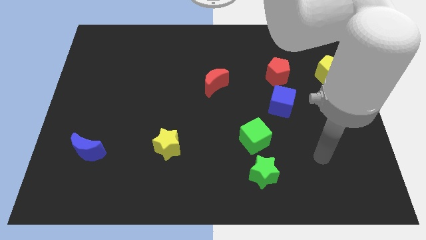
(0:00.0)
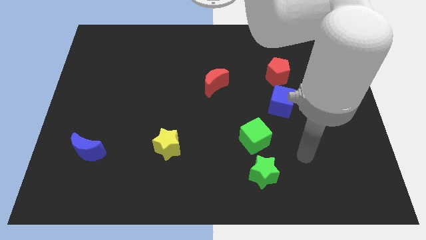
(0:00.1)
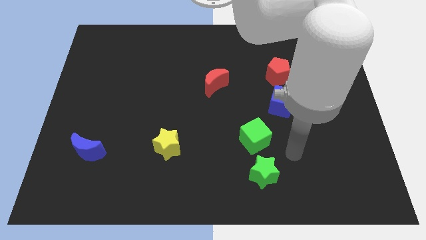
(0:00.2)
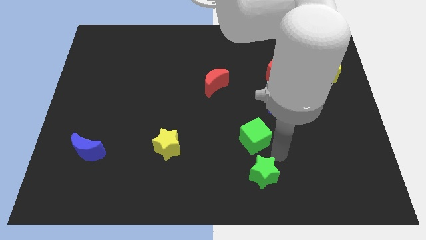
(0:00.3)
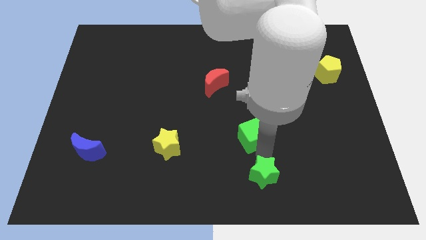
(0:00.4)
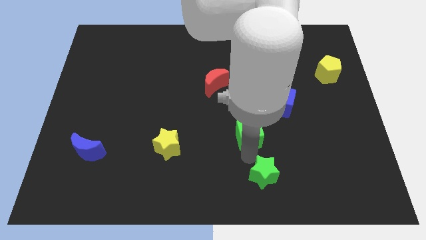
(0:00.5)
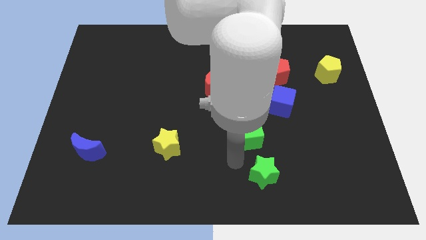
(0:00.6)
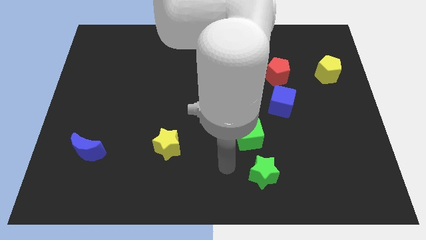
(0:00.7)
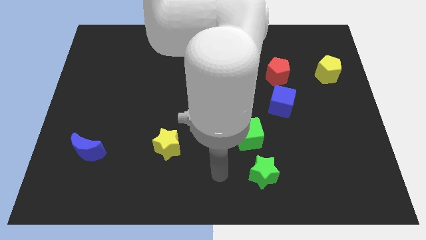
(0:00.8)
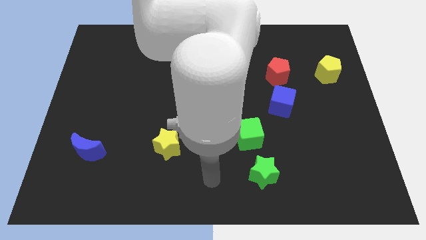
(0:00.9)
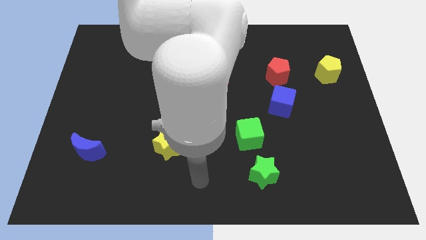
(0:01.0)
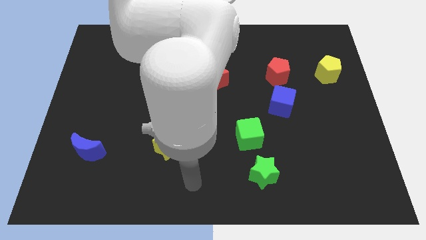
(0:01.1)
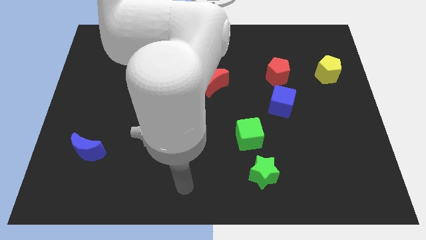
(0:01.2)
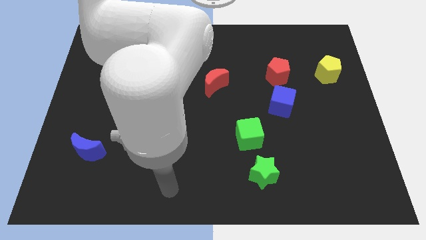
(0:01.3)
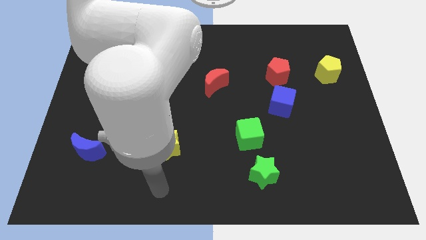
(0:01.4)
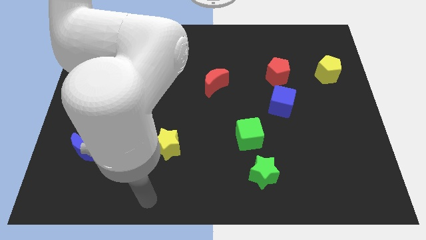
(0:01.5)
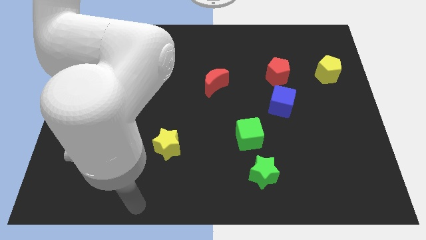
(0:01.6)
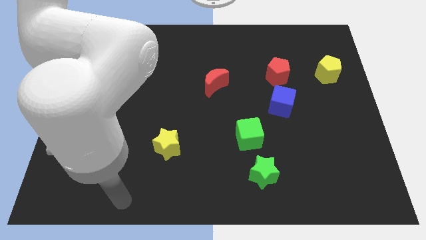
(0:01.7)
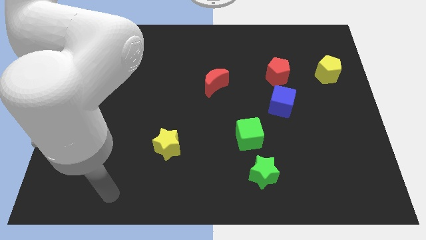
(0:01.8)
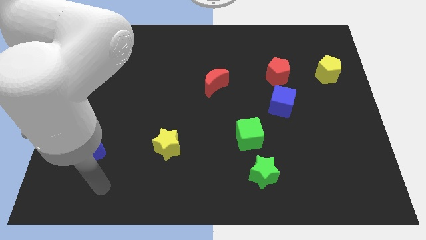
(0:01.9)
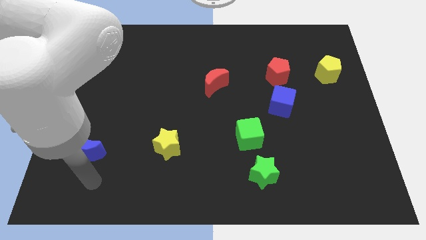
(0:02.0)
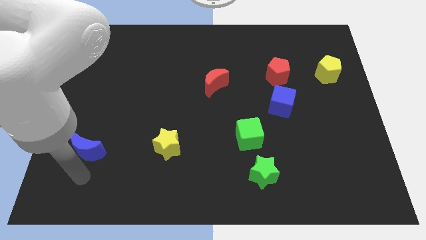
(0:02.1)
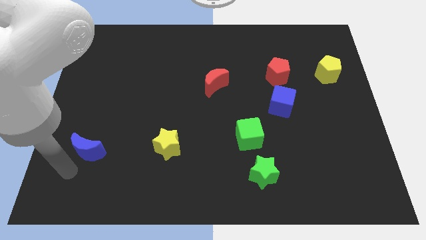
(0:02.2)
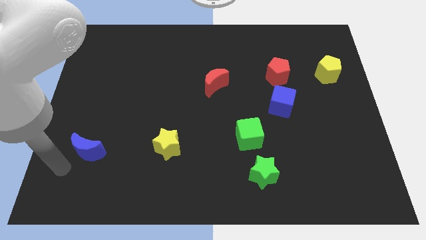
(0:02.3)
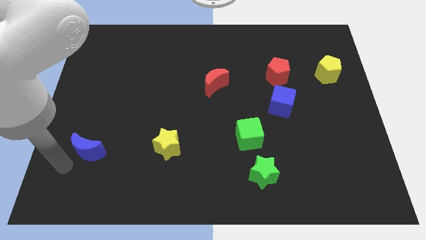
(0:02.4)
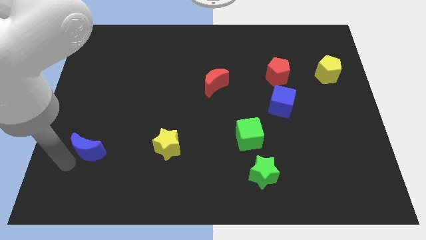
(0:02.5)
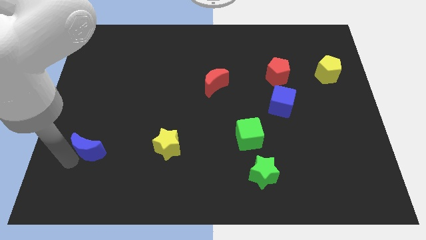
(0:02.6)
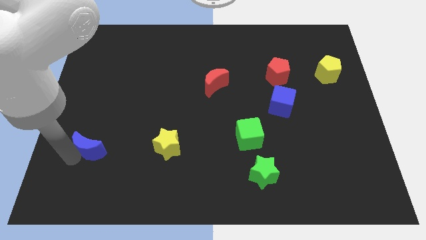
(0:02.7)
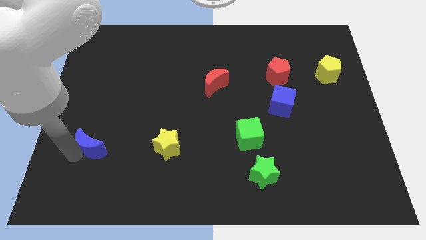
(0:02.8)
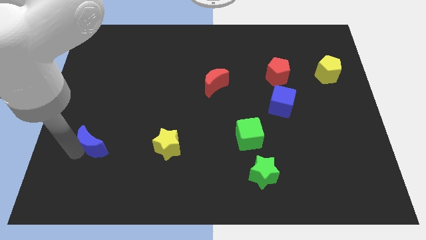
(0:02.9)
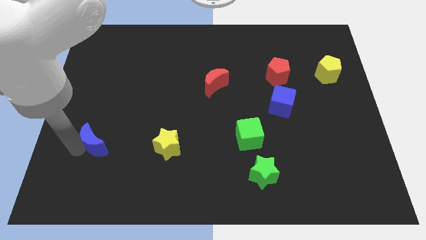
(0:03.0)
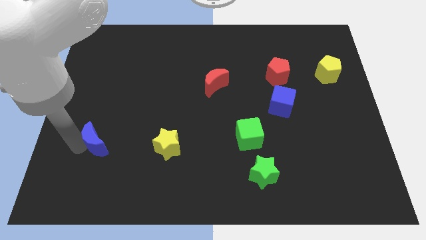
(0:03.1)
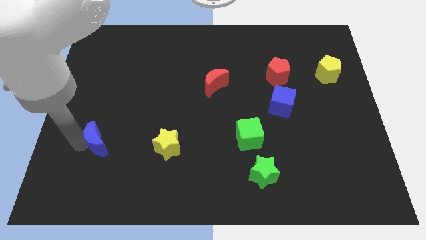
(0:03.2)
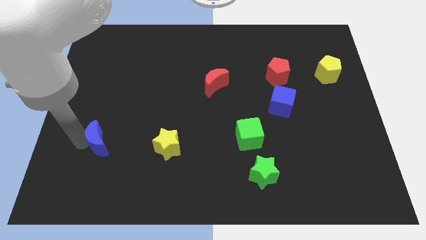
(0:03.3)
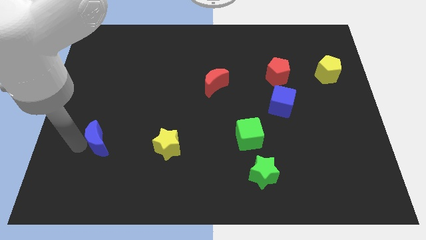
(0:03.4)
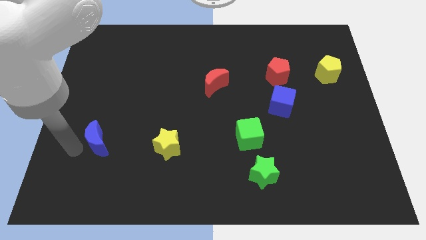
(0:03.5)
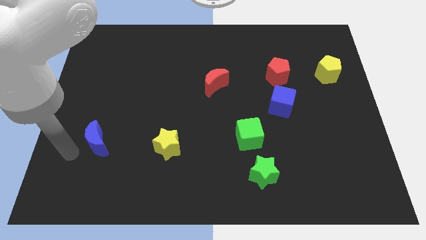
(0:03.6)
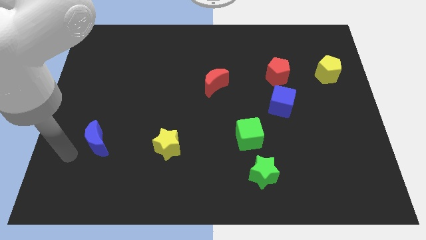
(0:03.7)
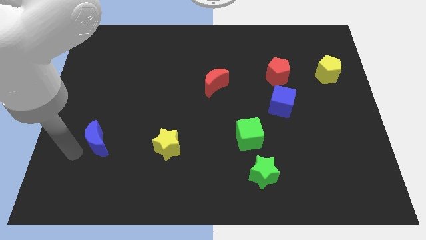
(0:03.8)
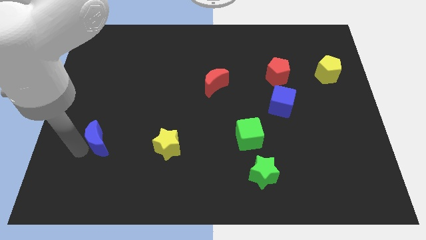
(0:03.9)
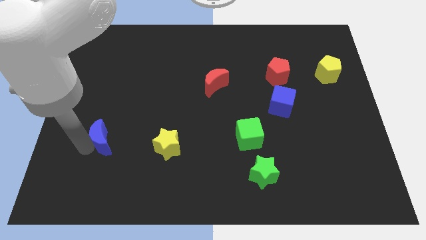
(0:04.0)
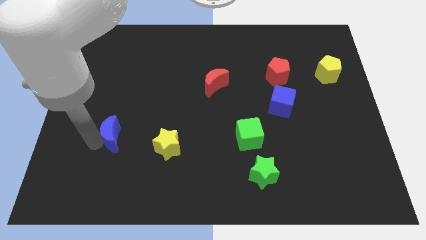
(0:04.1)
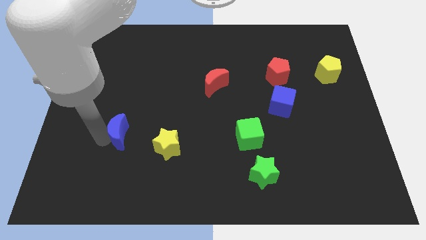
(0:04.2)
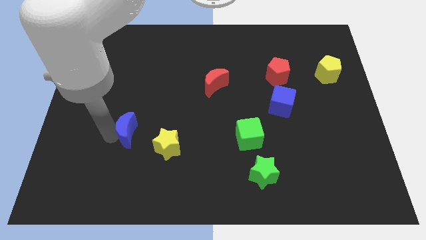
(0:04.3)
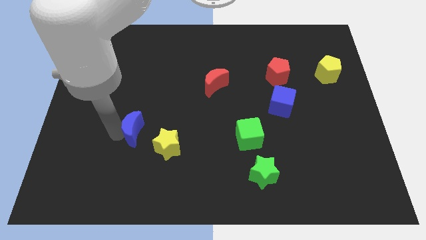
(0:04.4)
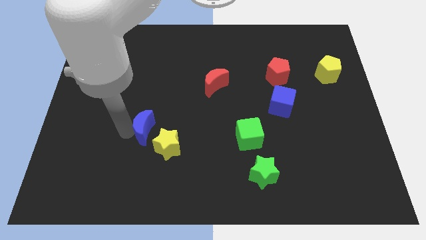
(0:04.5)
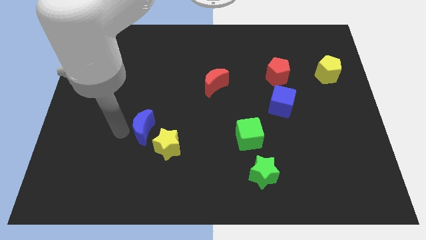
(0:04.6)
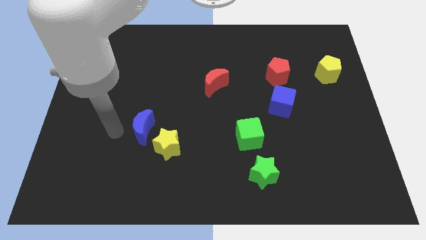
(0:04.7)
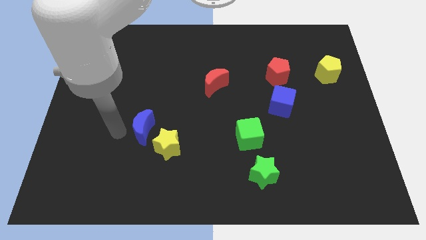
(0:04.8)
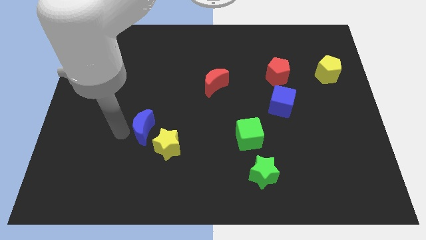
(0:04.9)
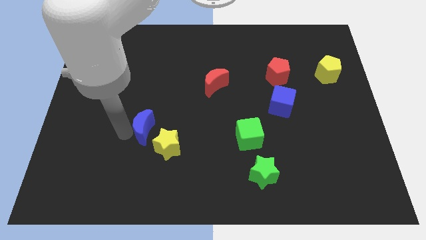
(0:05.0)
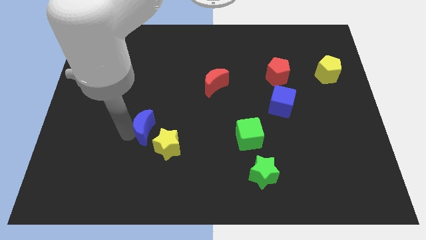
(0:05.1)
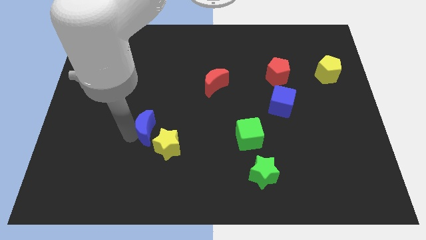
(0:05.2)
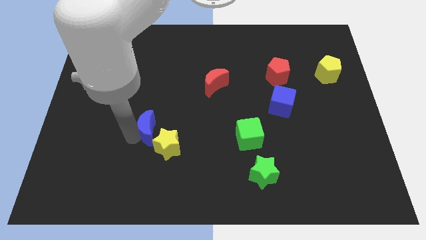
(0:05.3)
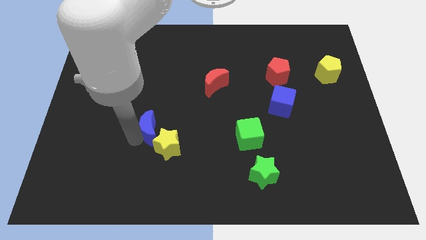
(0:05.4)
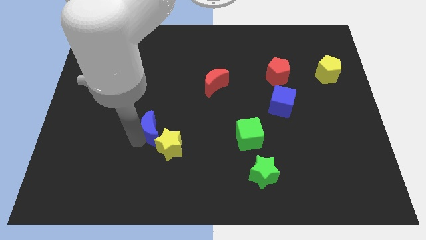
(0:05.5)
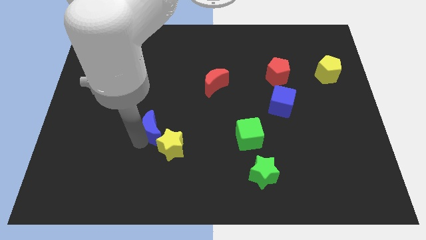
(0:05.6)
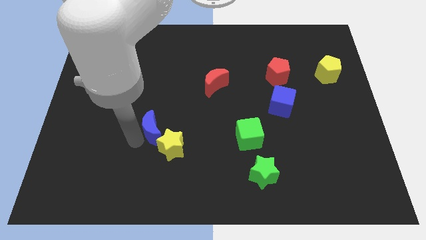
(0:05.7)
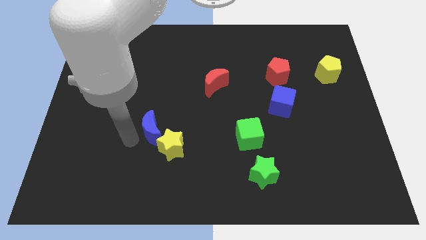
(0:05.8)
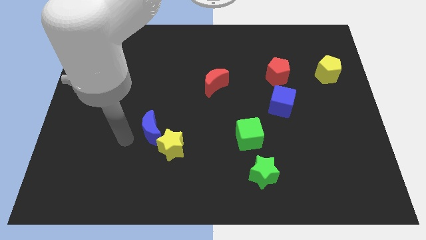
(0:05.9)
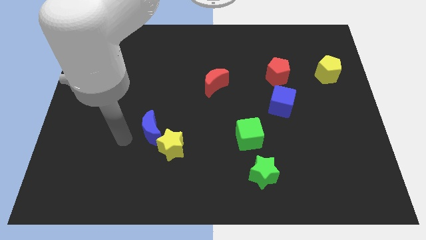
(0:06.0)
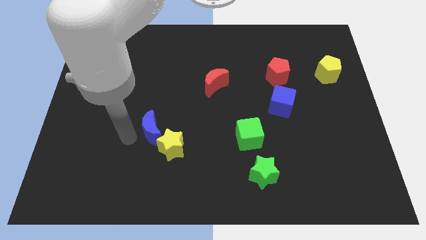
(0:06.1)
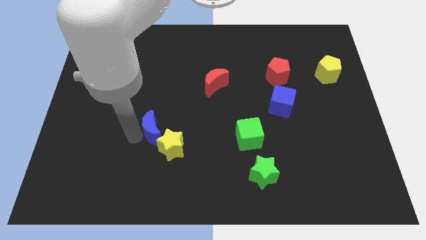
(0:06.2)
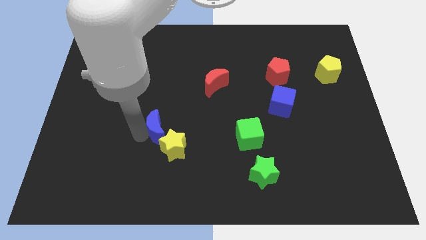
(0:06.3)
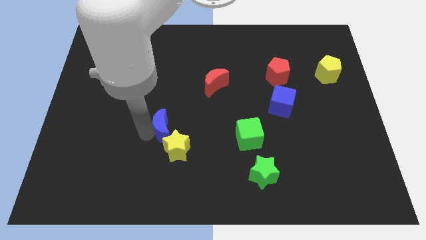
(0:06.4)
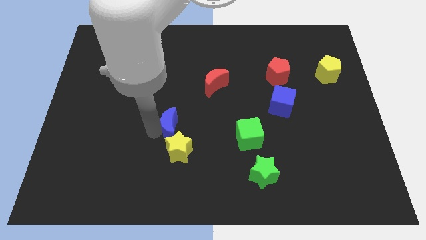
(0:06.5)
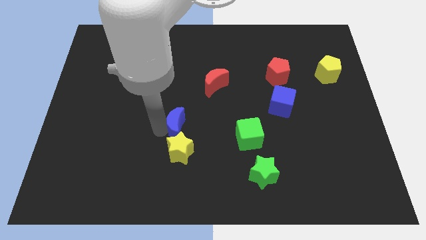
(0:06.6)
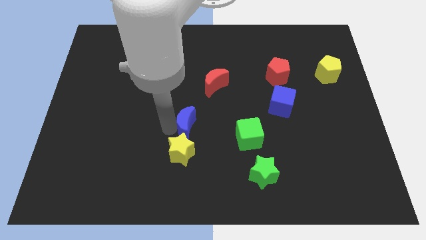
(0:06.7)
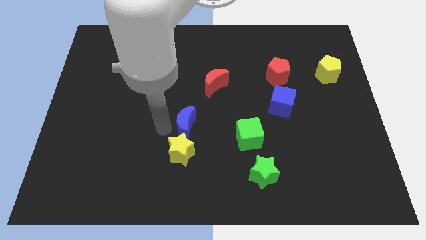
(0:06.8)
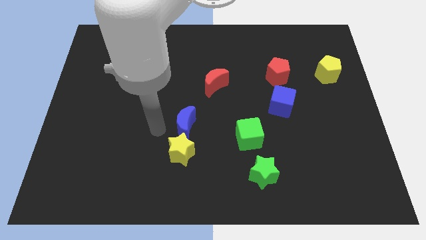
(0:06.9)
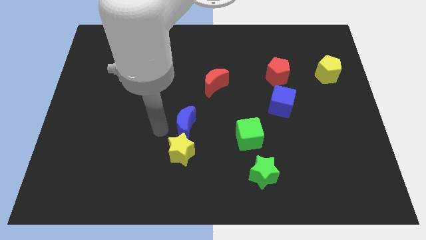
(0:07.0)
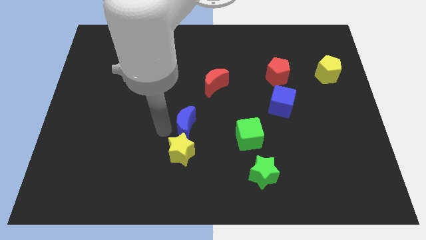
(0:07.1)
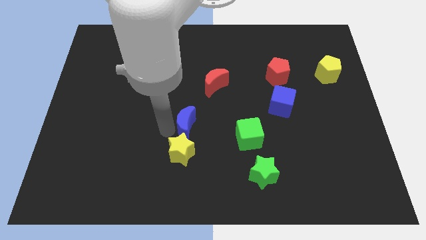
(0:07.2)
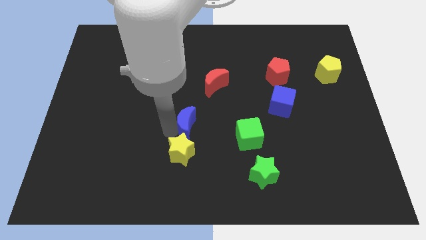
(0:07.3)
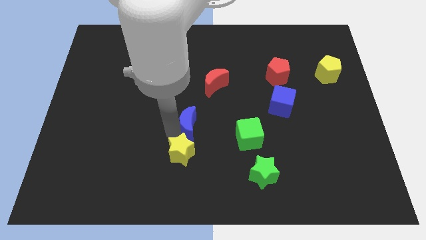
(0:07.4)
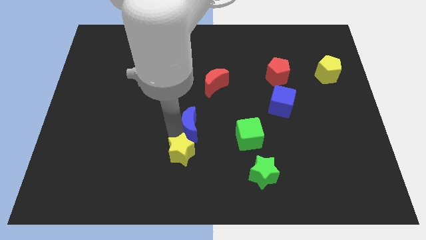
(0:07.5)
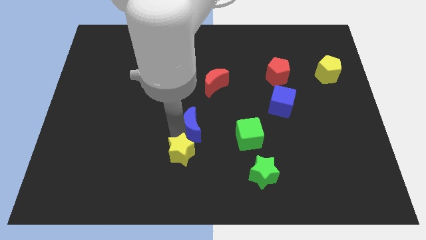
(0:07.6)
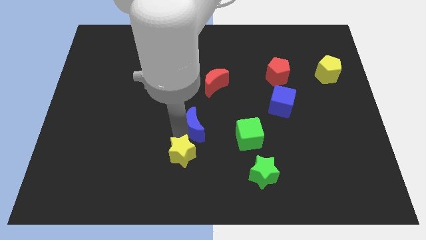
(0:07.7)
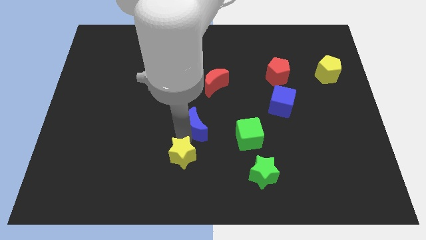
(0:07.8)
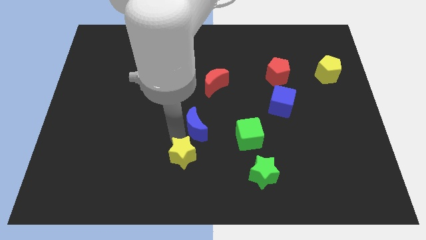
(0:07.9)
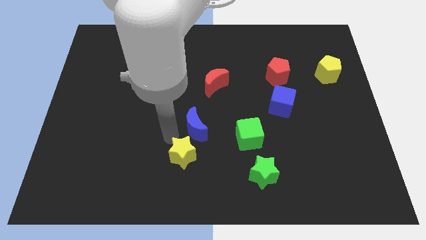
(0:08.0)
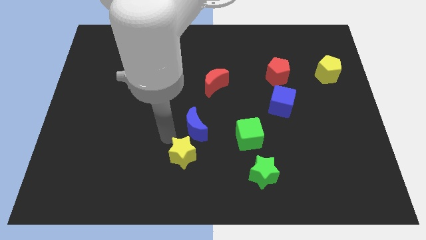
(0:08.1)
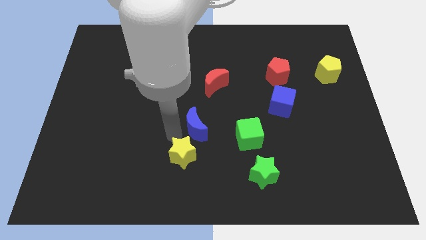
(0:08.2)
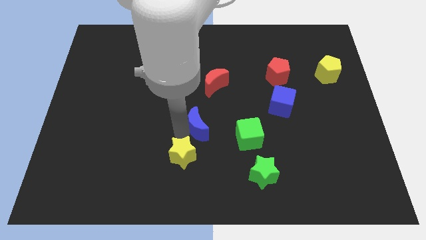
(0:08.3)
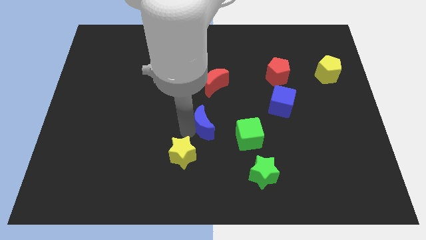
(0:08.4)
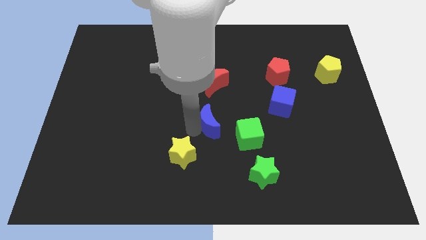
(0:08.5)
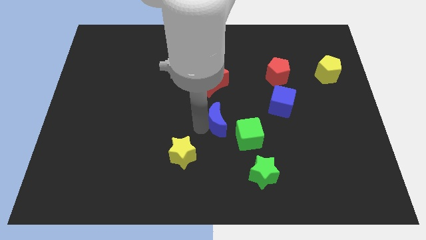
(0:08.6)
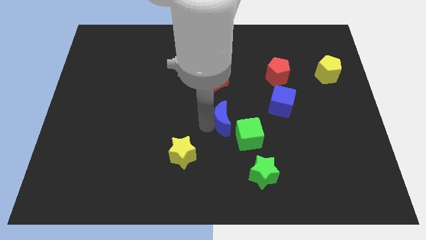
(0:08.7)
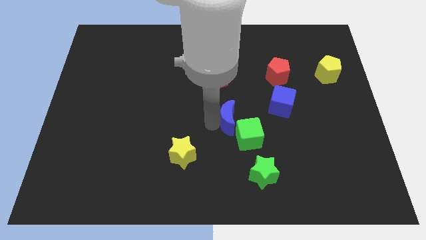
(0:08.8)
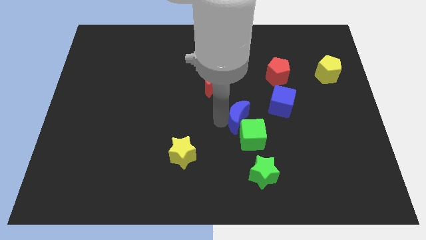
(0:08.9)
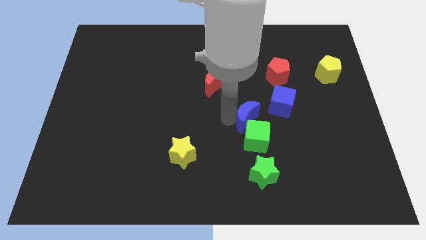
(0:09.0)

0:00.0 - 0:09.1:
slide the blue moon to the bottom left side of the blue cube
